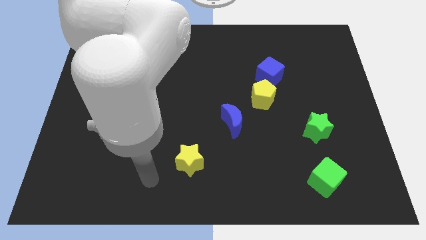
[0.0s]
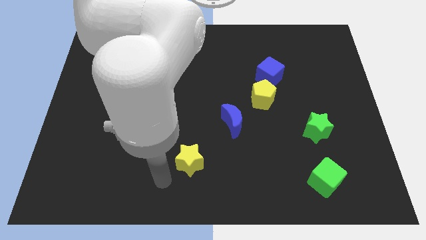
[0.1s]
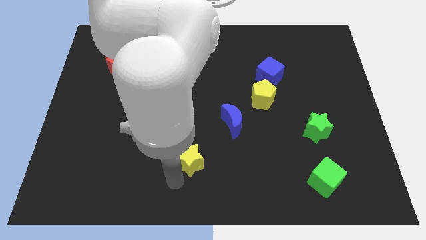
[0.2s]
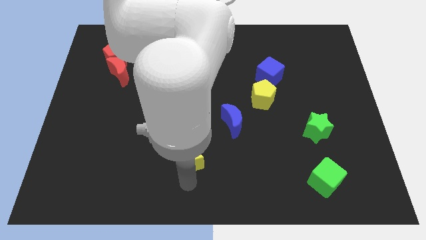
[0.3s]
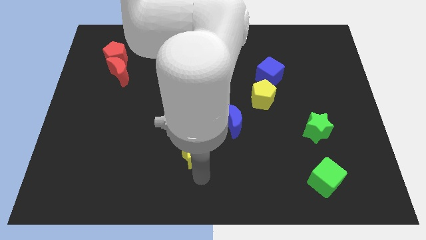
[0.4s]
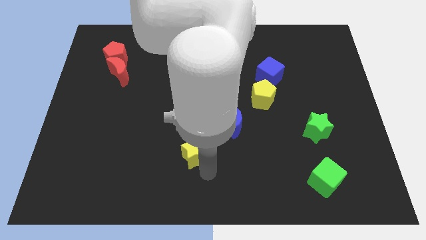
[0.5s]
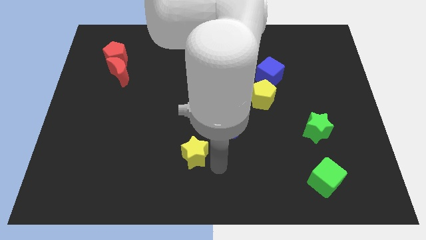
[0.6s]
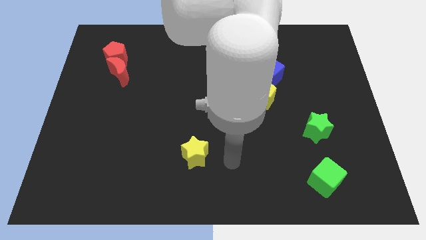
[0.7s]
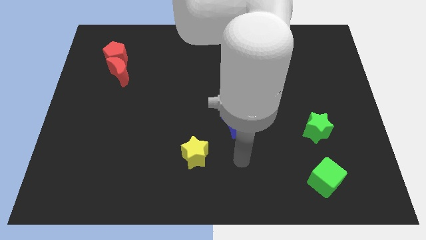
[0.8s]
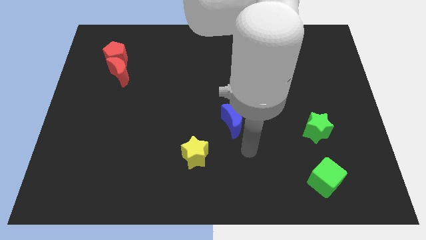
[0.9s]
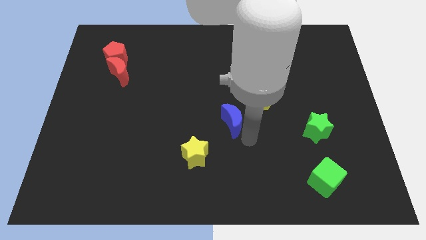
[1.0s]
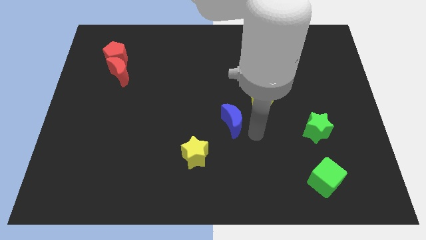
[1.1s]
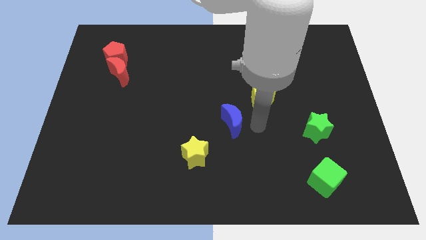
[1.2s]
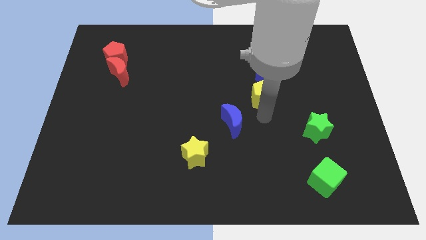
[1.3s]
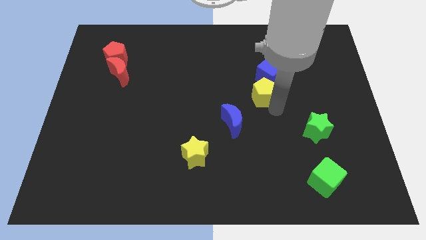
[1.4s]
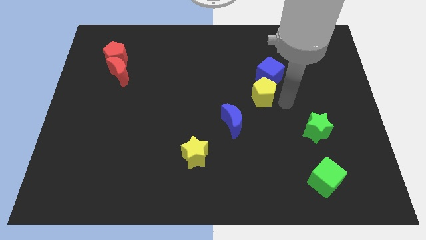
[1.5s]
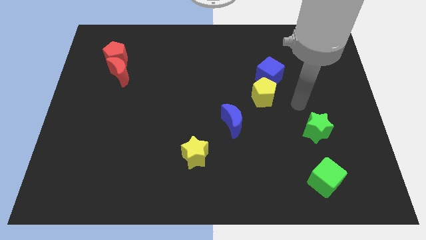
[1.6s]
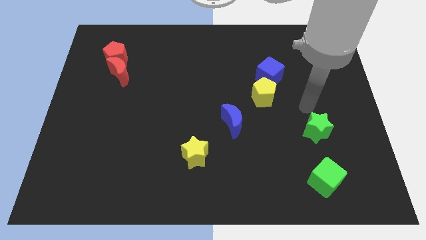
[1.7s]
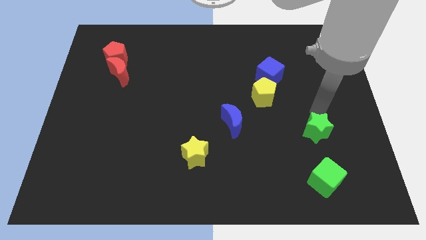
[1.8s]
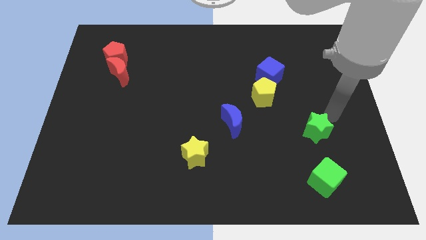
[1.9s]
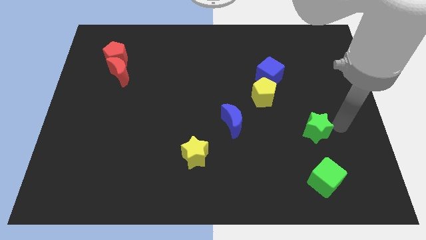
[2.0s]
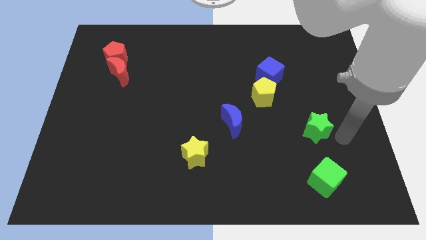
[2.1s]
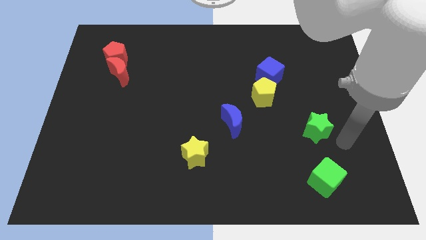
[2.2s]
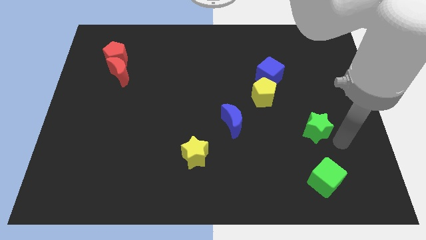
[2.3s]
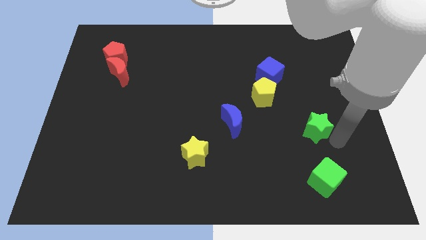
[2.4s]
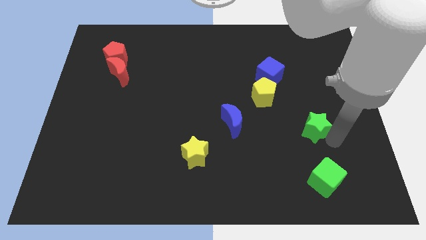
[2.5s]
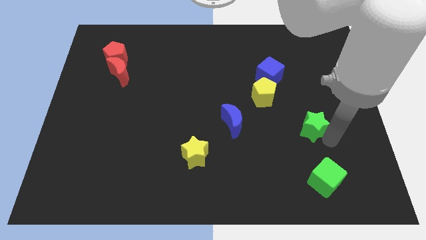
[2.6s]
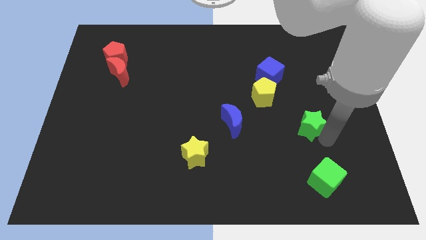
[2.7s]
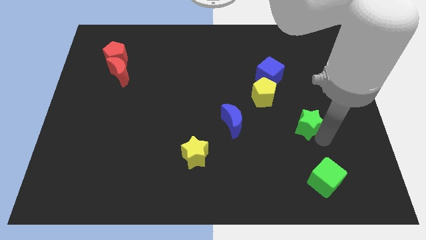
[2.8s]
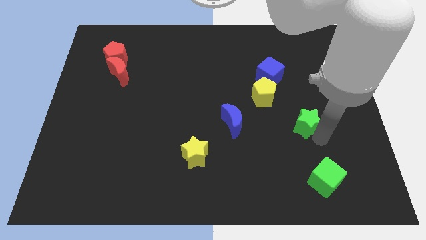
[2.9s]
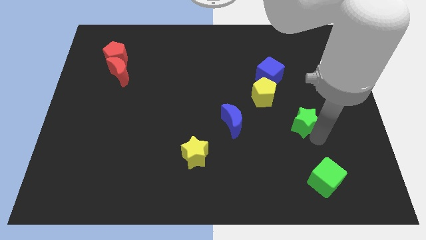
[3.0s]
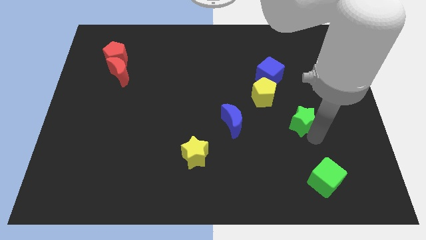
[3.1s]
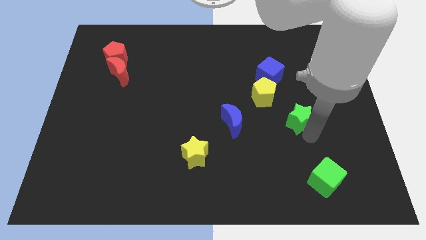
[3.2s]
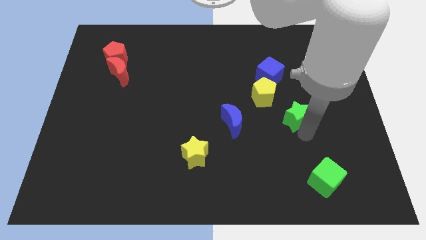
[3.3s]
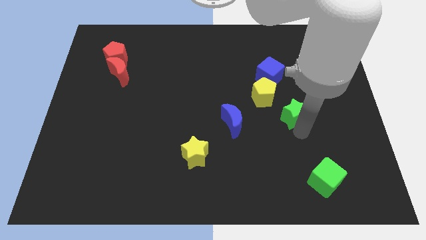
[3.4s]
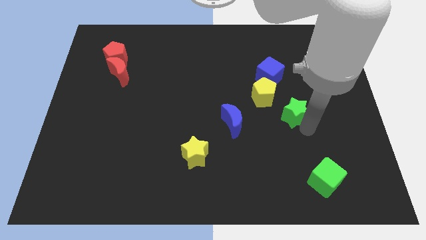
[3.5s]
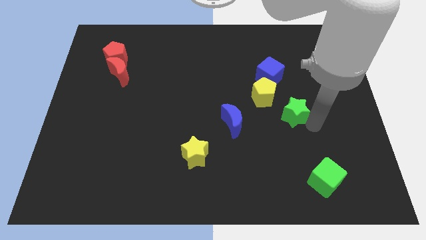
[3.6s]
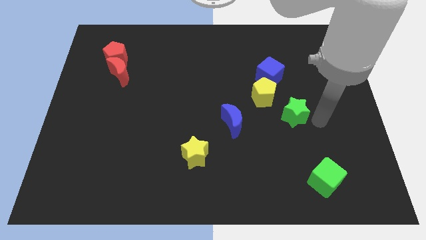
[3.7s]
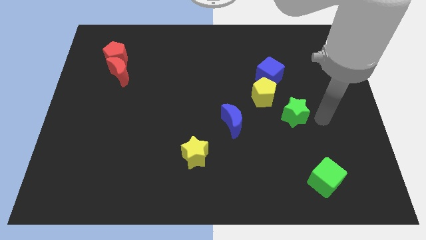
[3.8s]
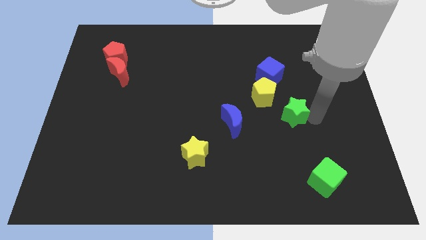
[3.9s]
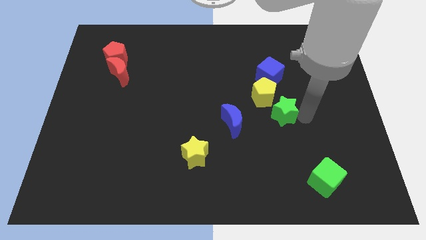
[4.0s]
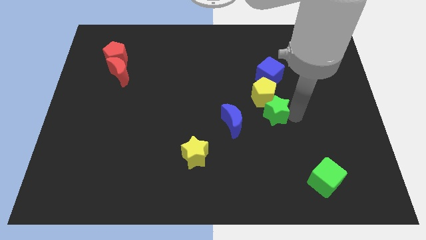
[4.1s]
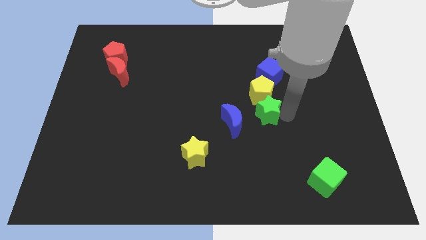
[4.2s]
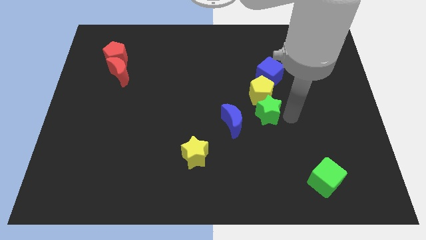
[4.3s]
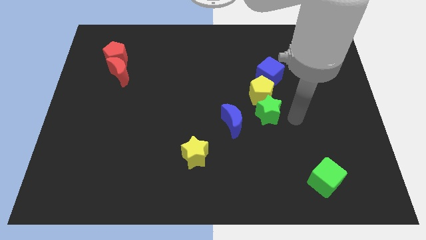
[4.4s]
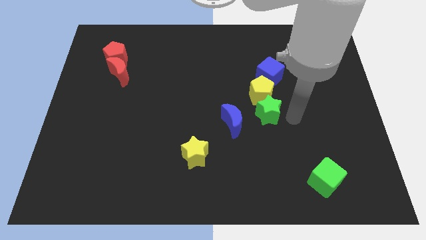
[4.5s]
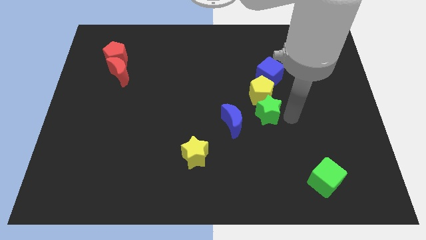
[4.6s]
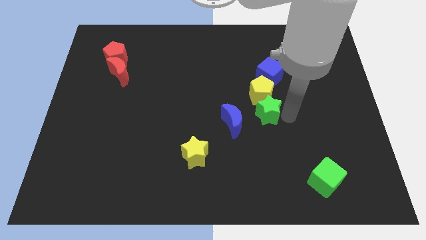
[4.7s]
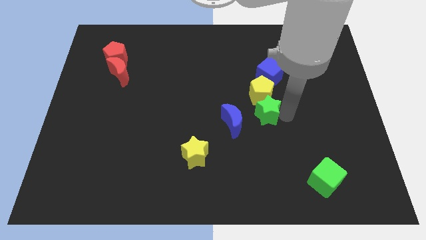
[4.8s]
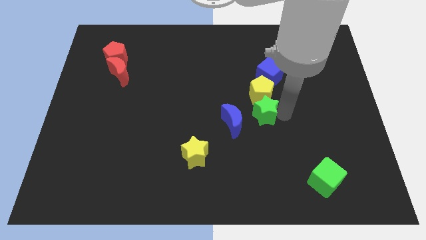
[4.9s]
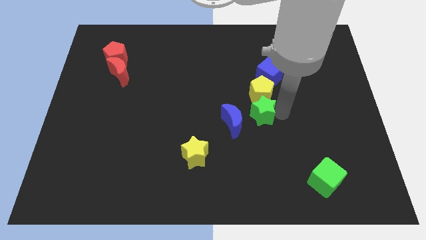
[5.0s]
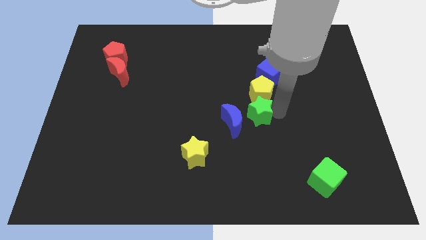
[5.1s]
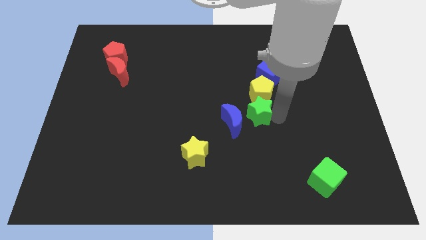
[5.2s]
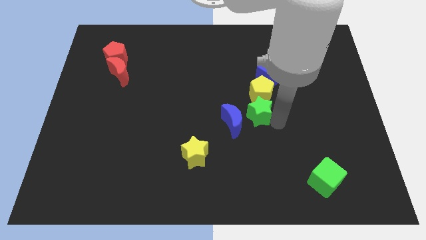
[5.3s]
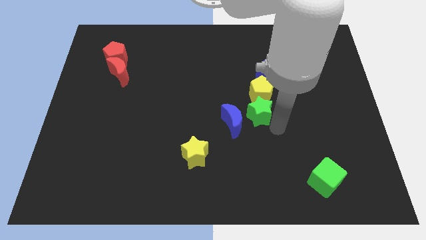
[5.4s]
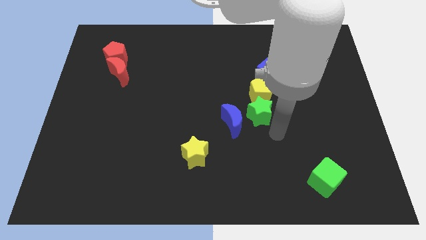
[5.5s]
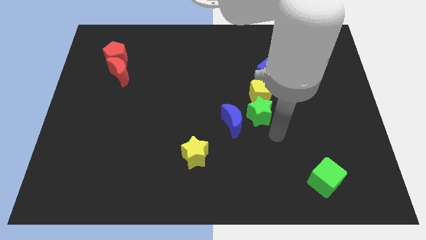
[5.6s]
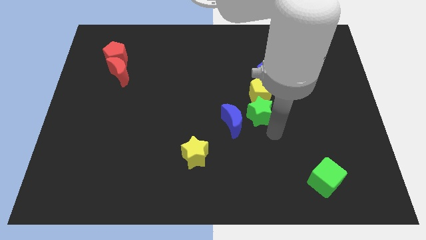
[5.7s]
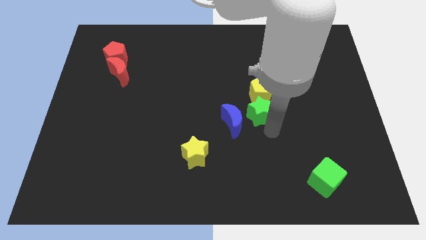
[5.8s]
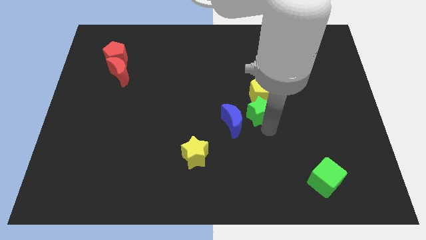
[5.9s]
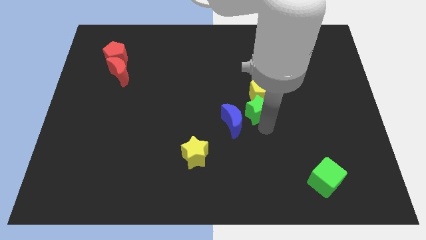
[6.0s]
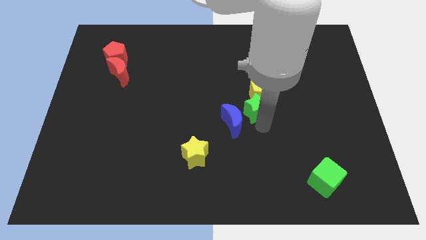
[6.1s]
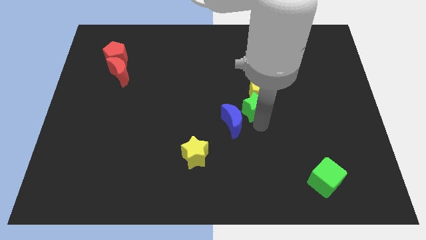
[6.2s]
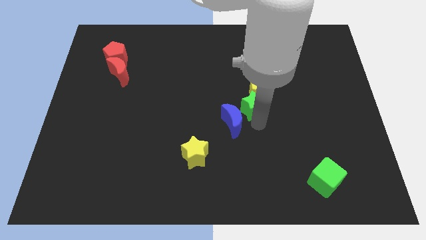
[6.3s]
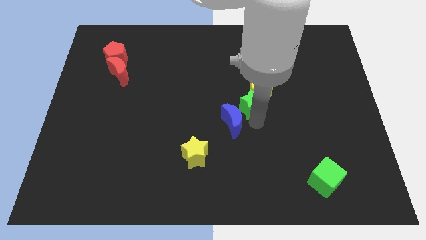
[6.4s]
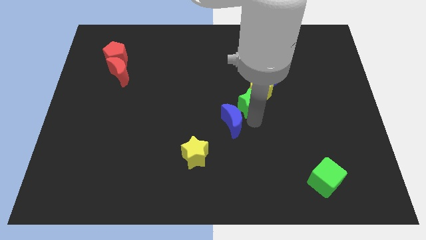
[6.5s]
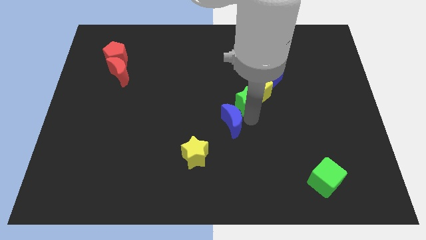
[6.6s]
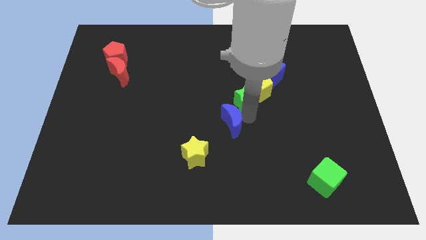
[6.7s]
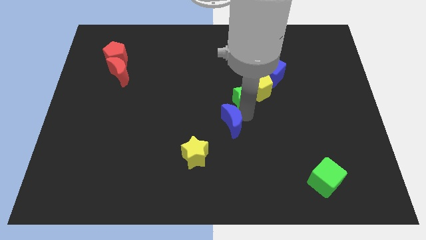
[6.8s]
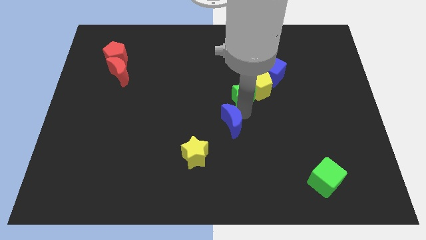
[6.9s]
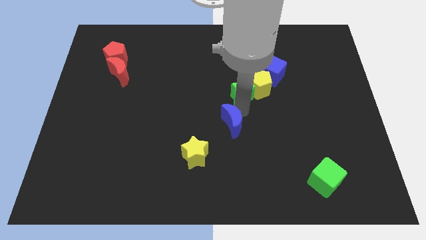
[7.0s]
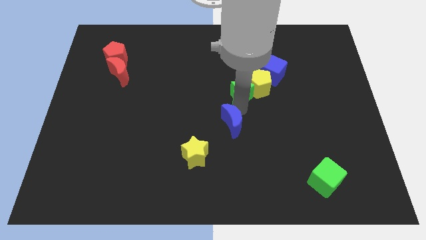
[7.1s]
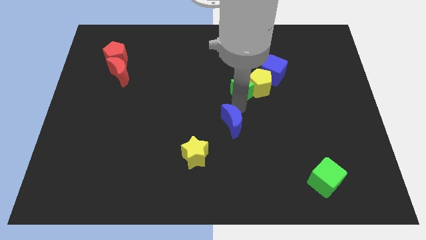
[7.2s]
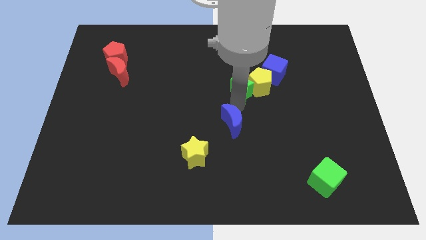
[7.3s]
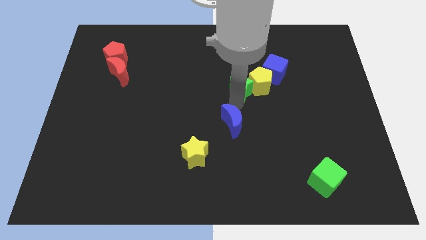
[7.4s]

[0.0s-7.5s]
slide the green star up and then to the left

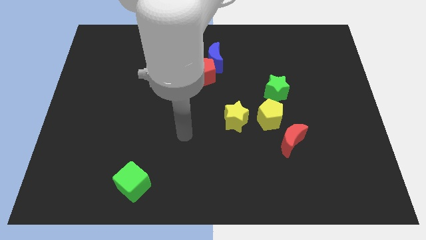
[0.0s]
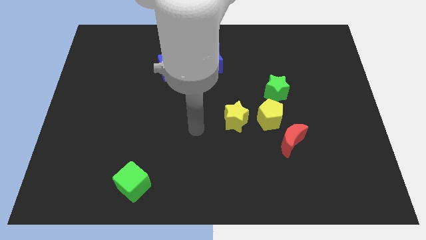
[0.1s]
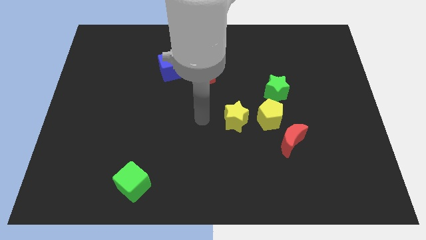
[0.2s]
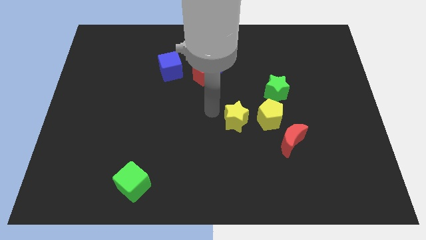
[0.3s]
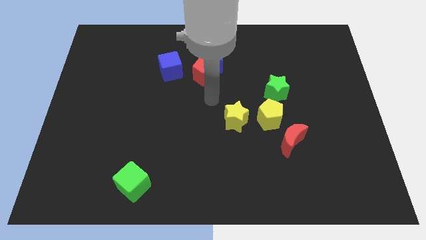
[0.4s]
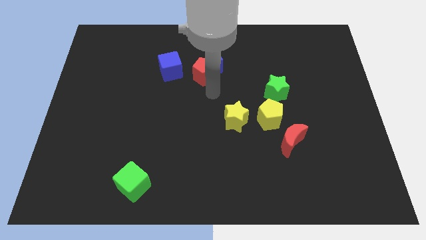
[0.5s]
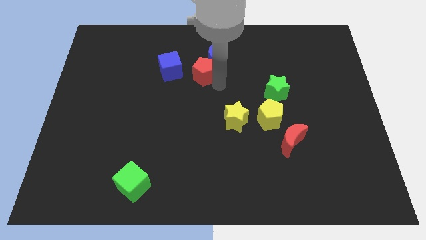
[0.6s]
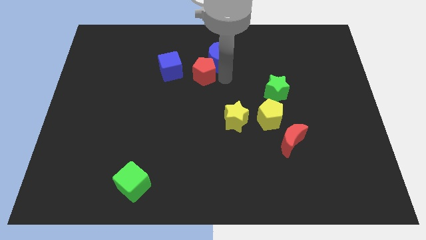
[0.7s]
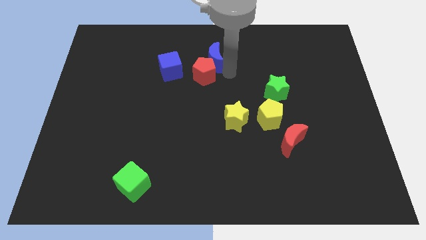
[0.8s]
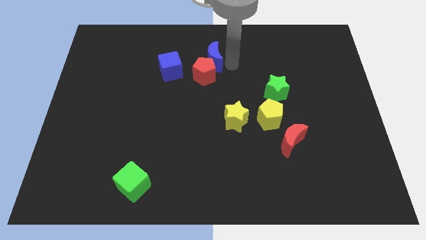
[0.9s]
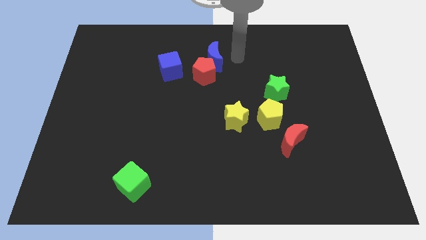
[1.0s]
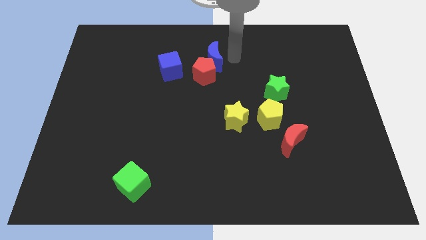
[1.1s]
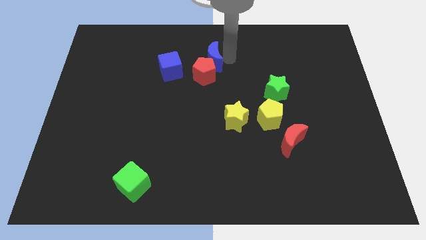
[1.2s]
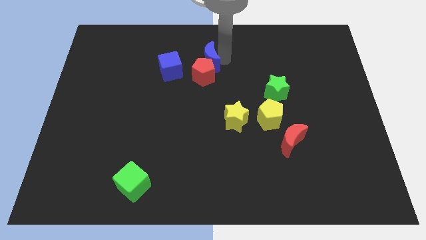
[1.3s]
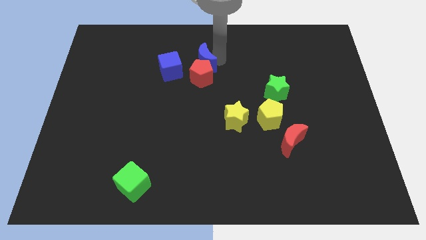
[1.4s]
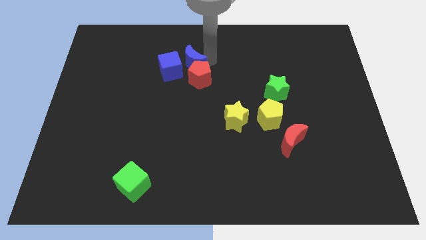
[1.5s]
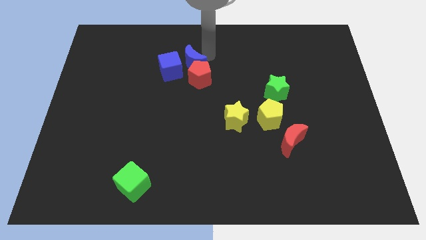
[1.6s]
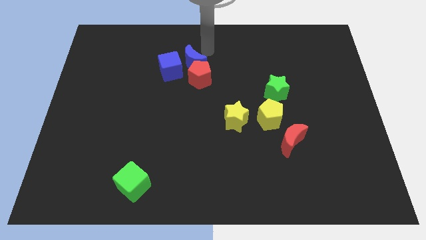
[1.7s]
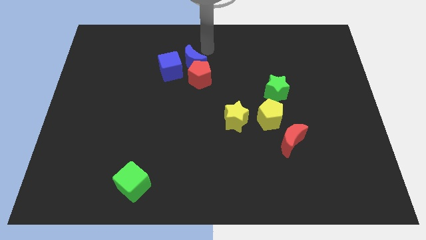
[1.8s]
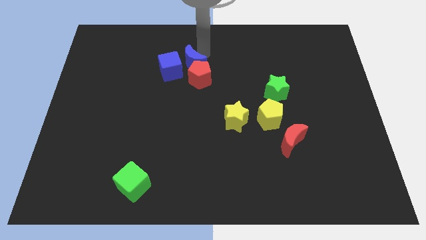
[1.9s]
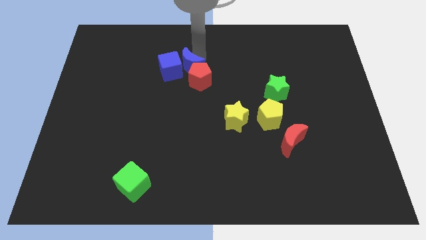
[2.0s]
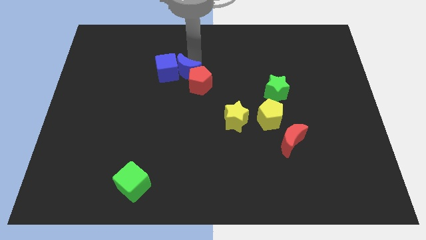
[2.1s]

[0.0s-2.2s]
push the blue moon a little down and then to the left
